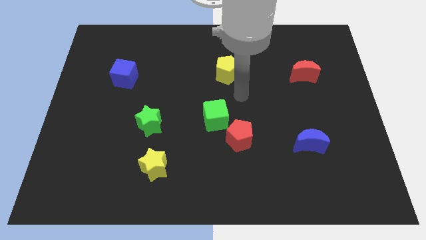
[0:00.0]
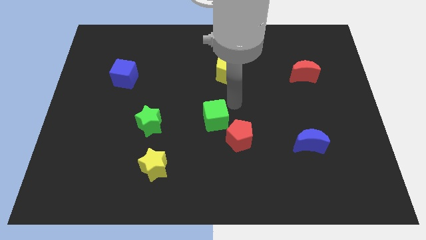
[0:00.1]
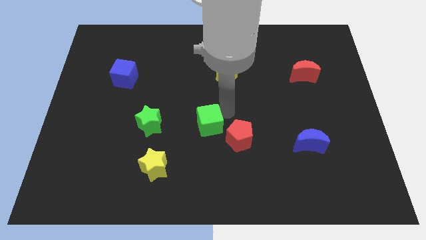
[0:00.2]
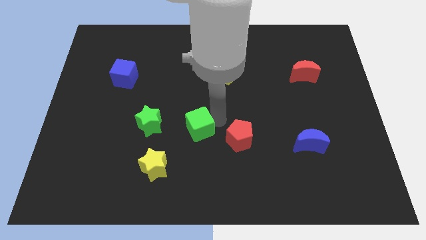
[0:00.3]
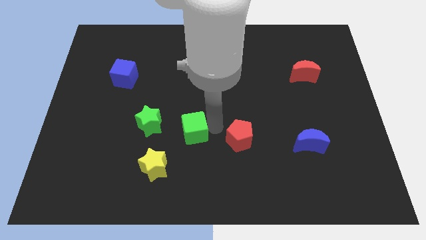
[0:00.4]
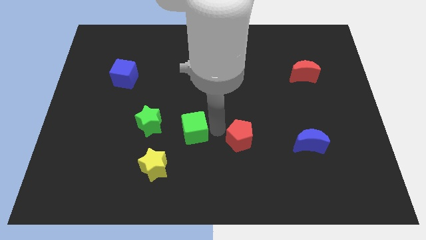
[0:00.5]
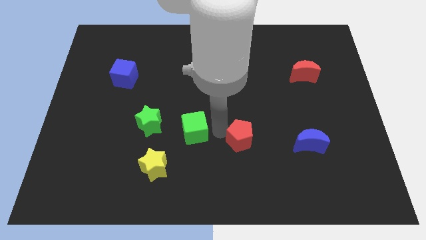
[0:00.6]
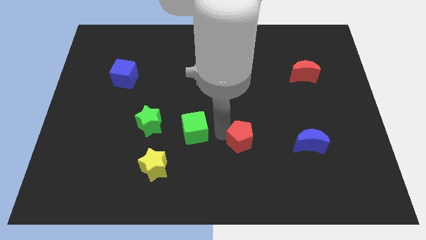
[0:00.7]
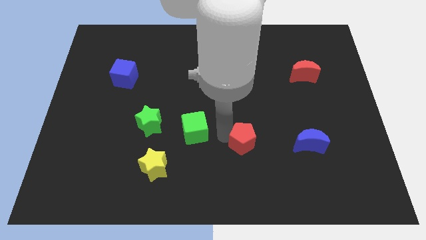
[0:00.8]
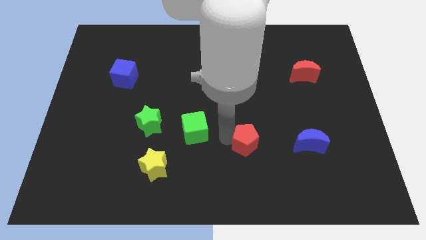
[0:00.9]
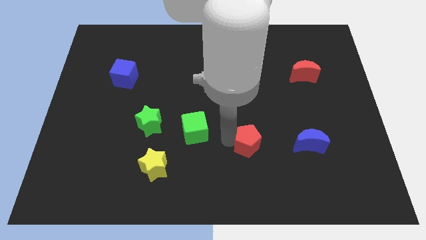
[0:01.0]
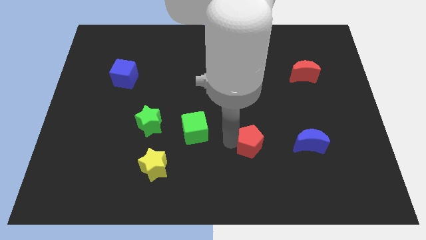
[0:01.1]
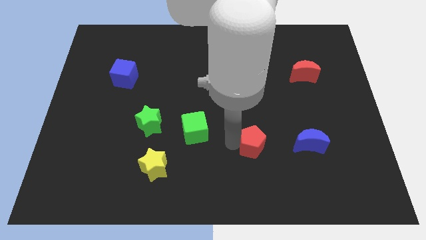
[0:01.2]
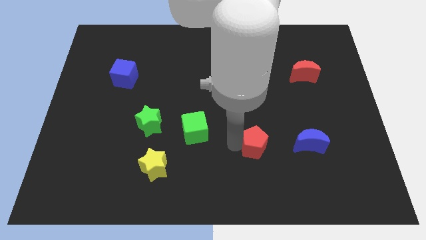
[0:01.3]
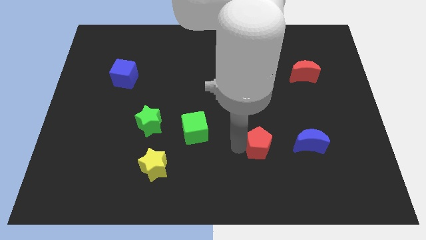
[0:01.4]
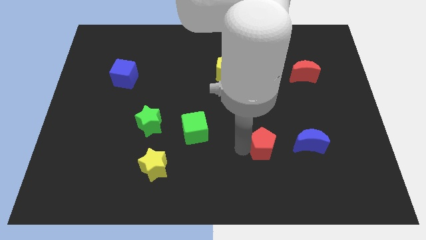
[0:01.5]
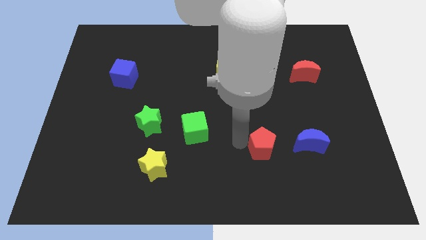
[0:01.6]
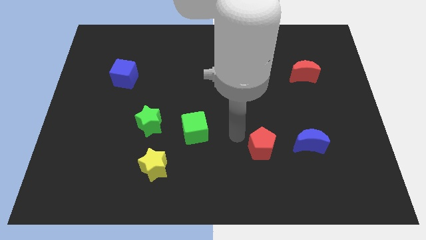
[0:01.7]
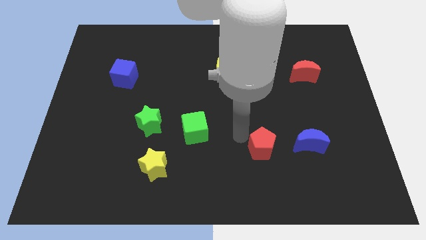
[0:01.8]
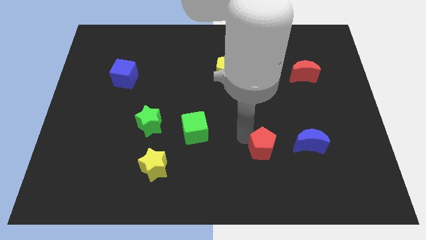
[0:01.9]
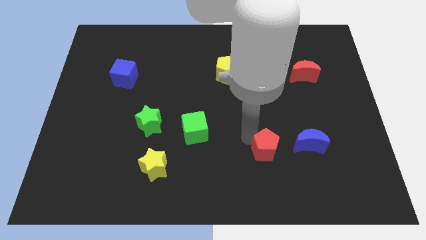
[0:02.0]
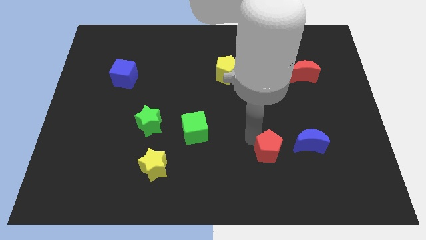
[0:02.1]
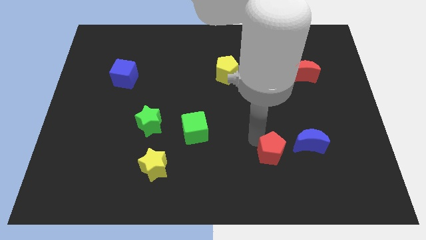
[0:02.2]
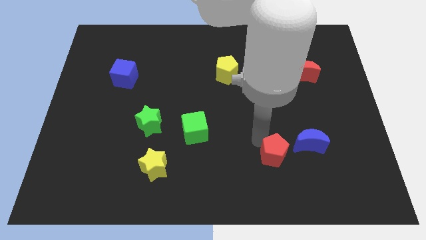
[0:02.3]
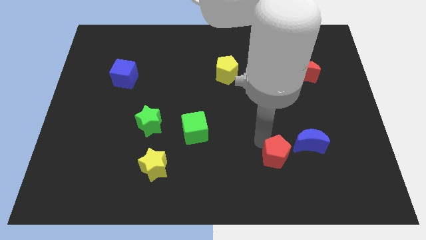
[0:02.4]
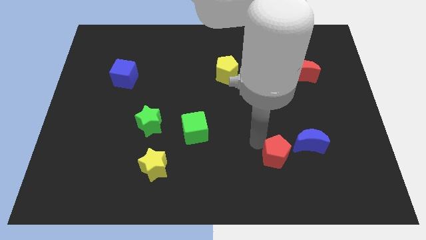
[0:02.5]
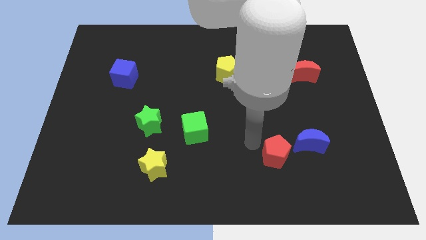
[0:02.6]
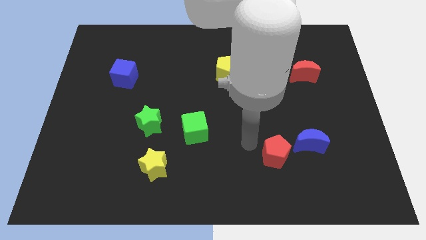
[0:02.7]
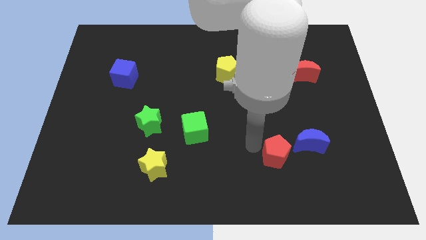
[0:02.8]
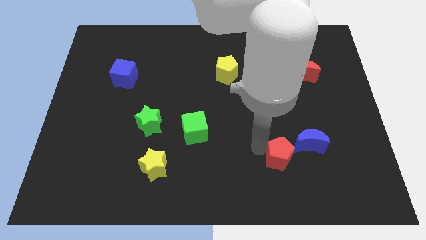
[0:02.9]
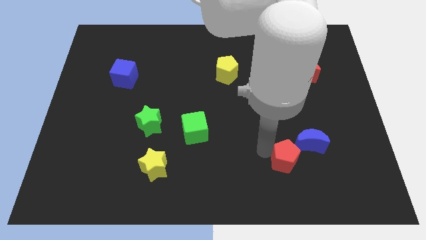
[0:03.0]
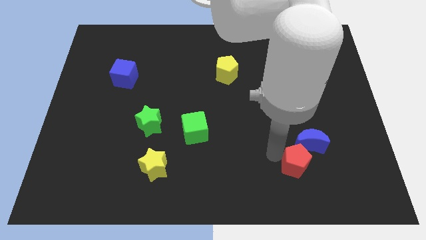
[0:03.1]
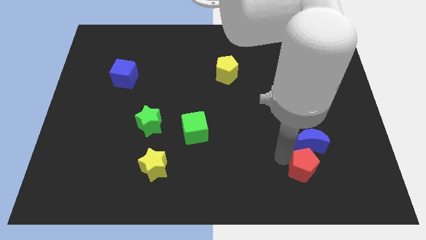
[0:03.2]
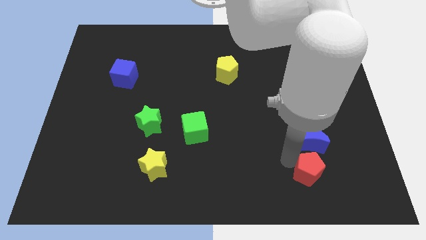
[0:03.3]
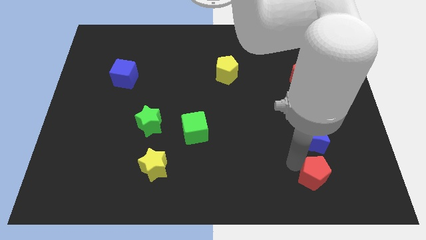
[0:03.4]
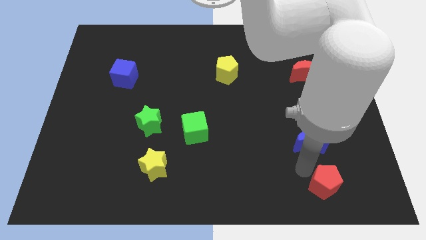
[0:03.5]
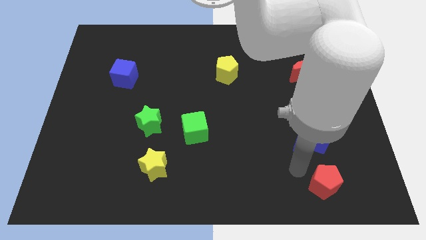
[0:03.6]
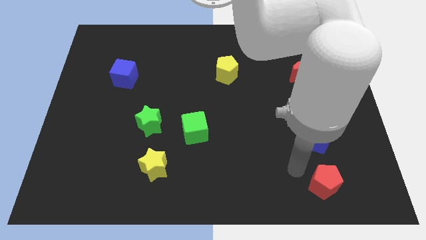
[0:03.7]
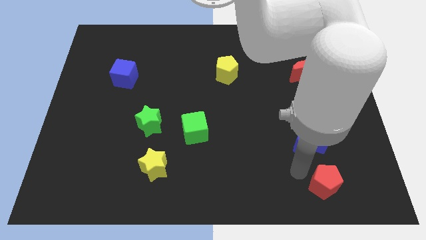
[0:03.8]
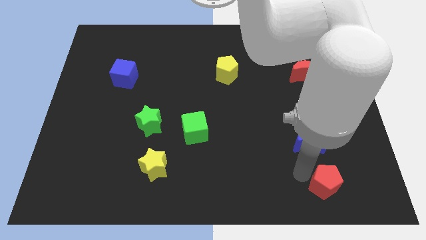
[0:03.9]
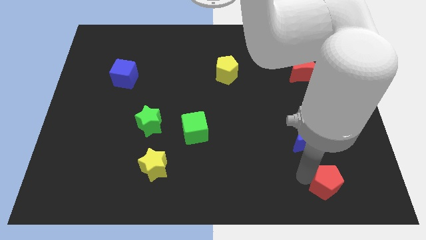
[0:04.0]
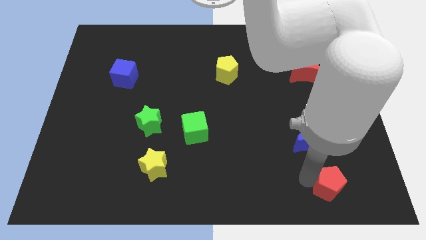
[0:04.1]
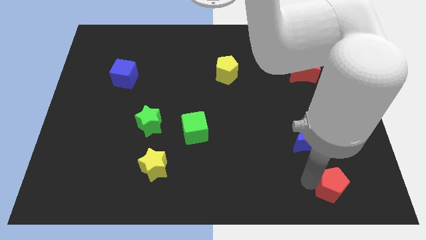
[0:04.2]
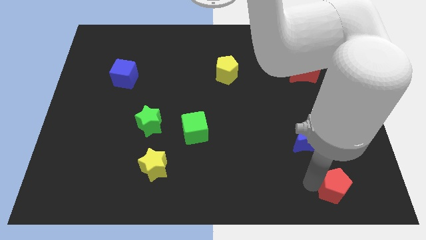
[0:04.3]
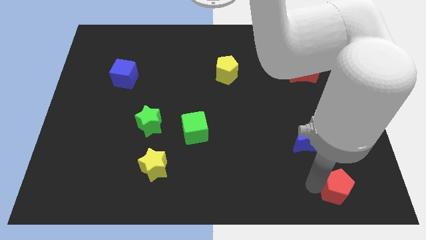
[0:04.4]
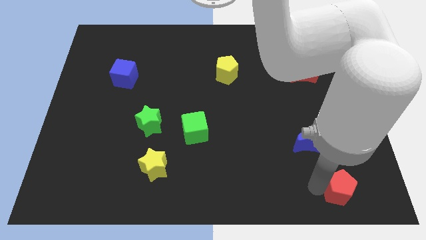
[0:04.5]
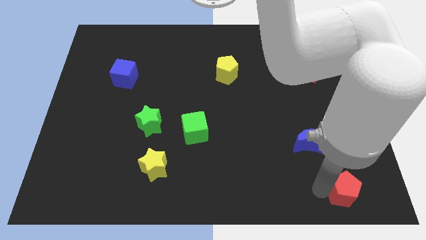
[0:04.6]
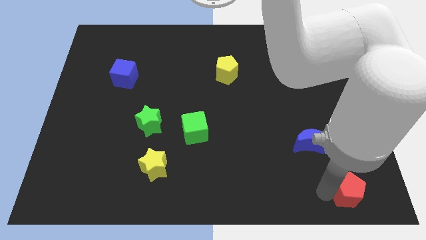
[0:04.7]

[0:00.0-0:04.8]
put the red pentagon to the lower right corner

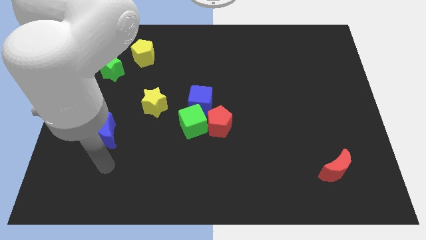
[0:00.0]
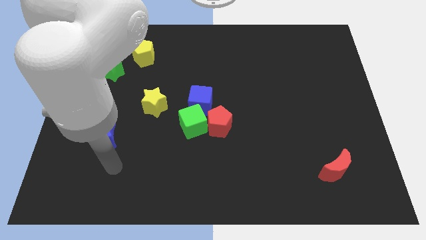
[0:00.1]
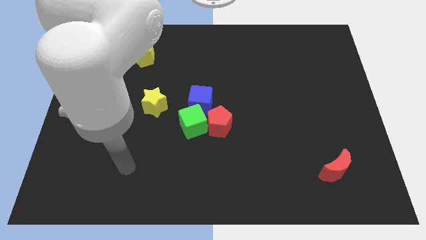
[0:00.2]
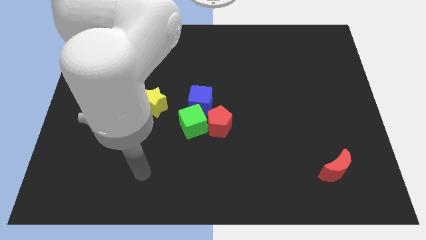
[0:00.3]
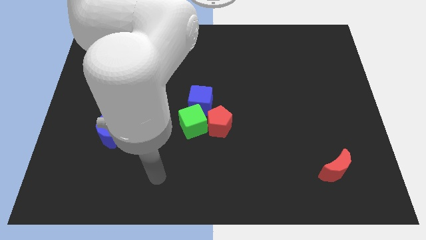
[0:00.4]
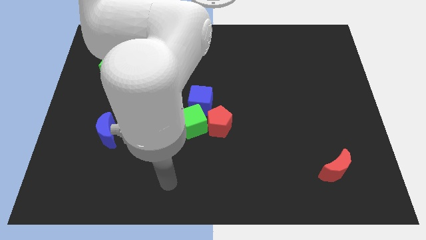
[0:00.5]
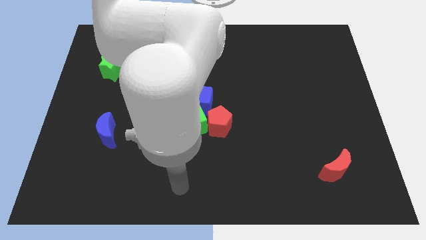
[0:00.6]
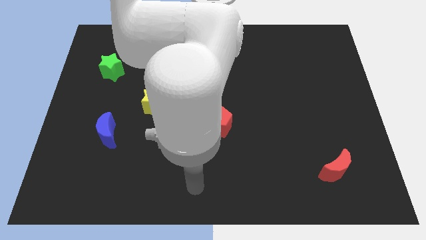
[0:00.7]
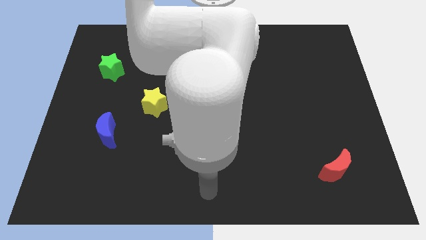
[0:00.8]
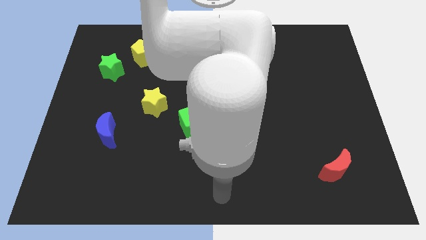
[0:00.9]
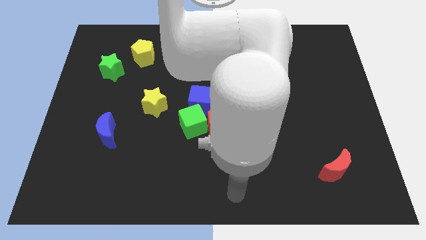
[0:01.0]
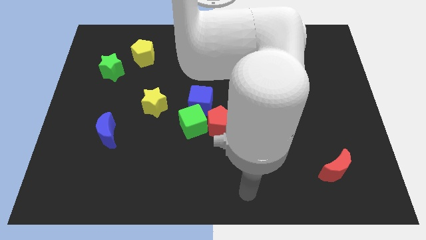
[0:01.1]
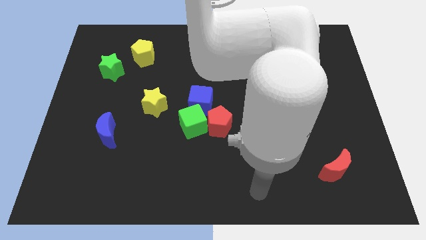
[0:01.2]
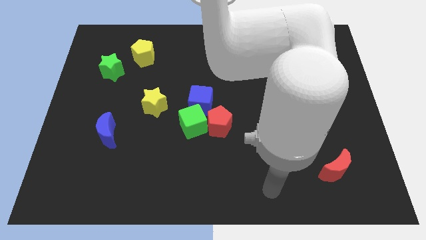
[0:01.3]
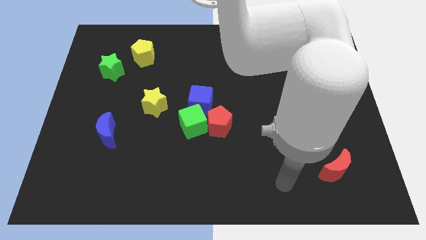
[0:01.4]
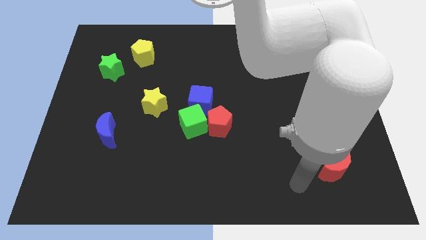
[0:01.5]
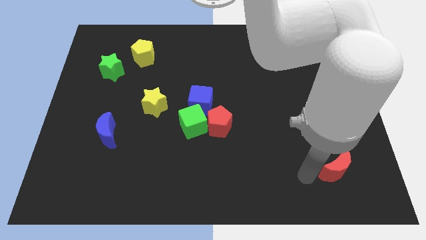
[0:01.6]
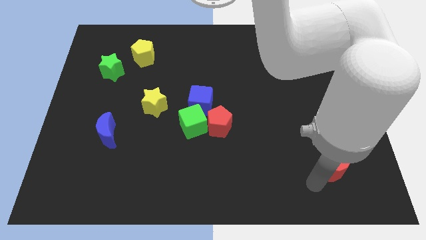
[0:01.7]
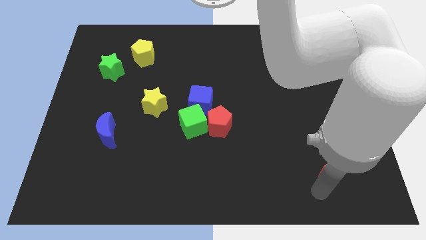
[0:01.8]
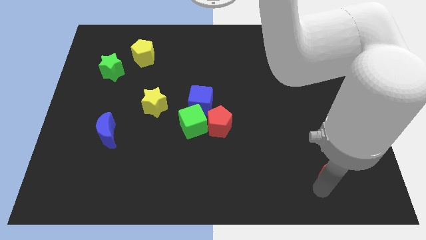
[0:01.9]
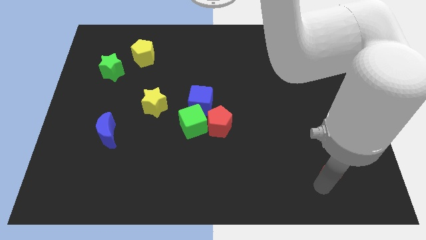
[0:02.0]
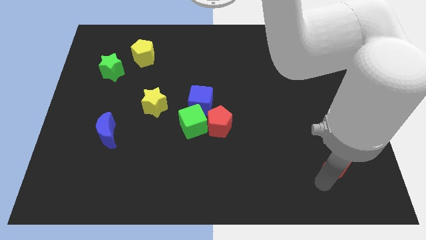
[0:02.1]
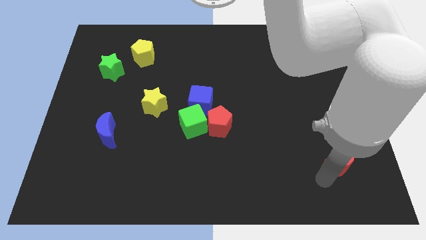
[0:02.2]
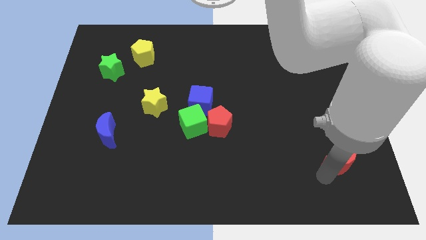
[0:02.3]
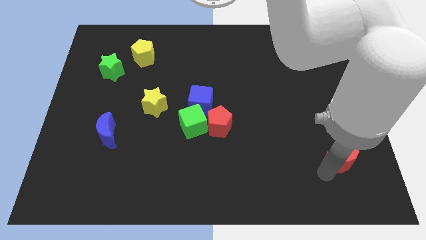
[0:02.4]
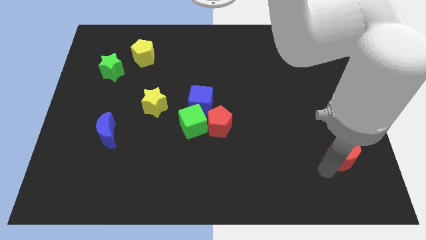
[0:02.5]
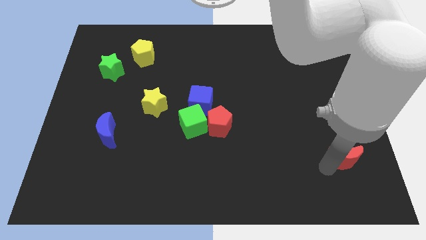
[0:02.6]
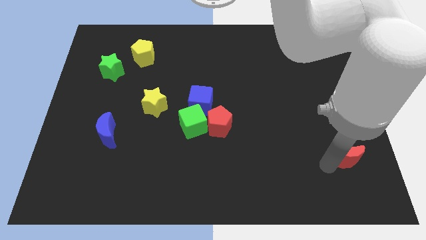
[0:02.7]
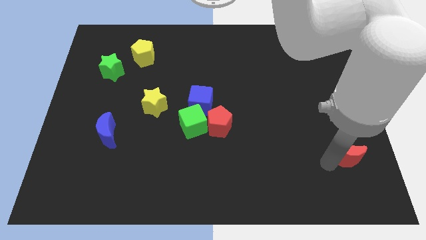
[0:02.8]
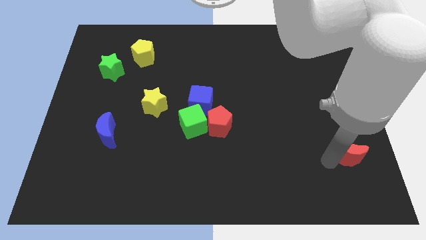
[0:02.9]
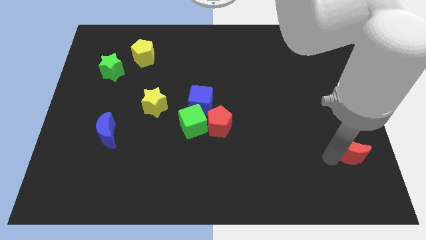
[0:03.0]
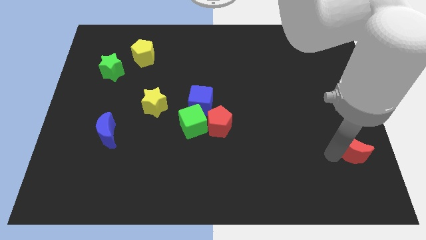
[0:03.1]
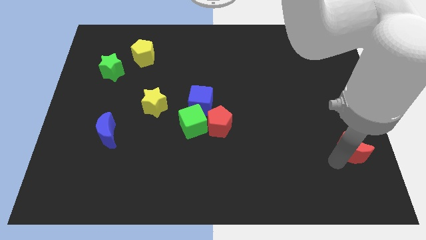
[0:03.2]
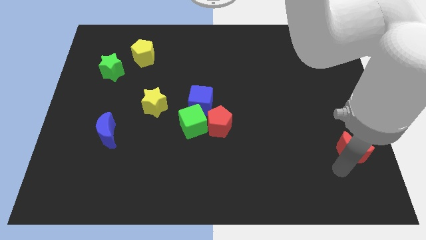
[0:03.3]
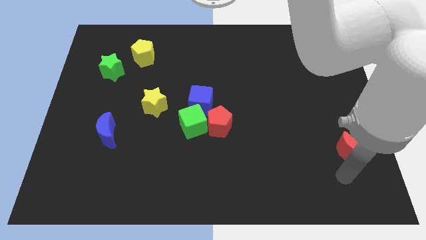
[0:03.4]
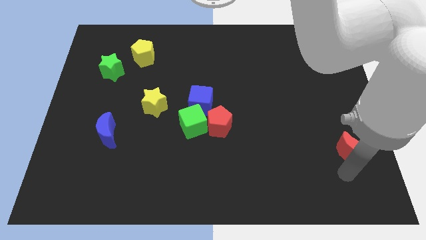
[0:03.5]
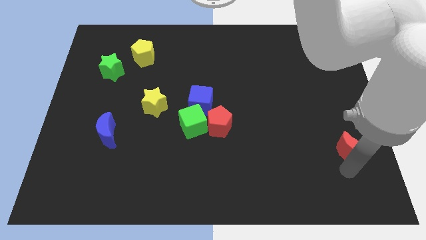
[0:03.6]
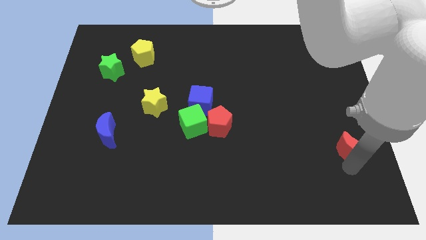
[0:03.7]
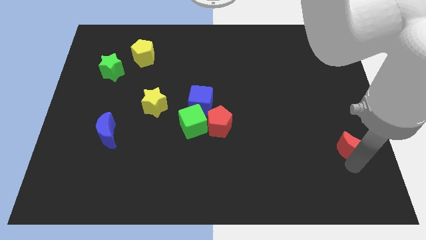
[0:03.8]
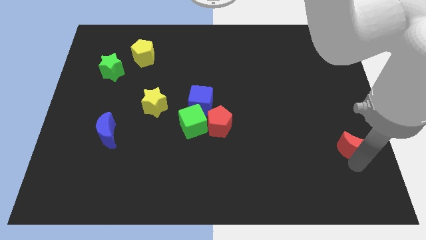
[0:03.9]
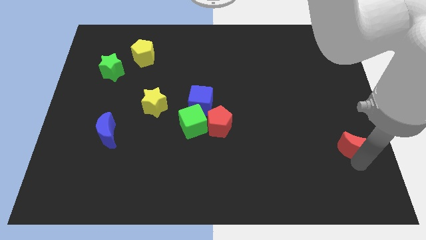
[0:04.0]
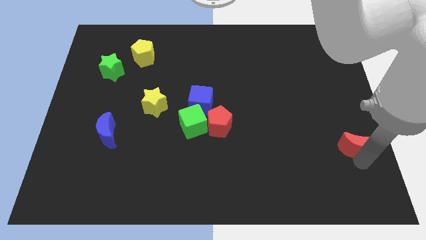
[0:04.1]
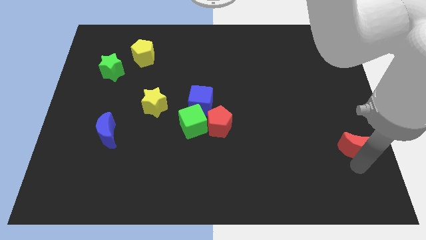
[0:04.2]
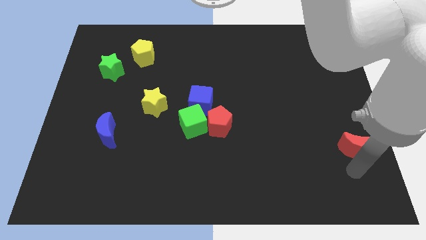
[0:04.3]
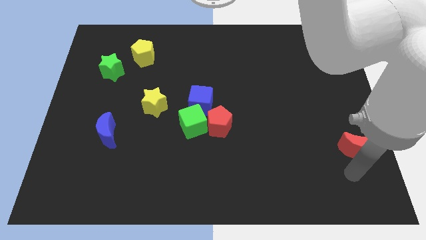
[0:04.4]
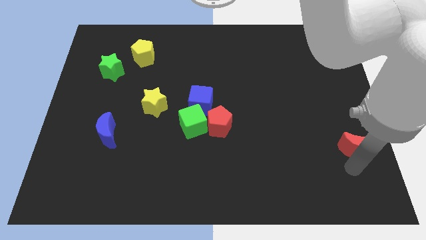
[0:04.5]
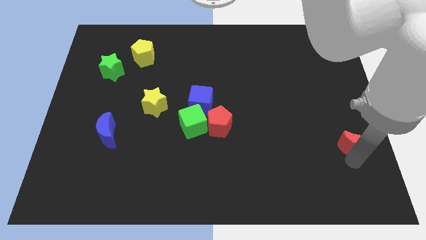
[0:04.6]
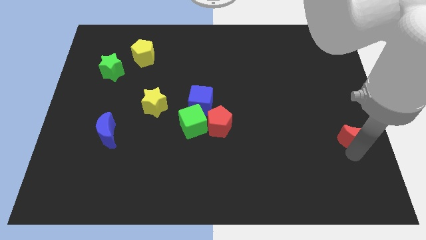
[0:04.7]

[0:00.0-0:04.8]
put the red moon to the right side of the board
